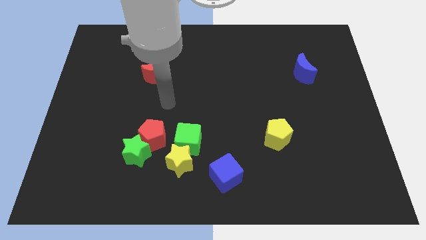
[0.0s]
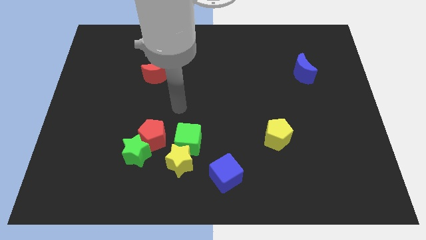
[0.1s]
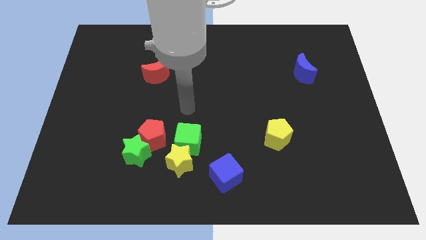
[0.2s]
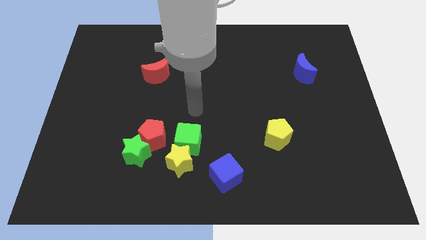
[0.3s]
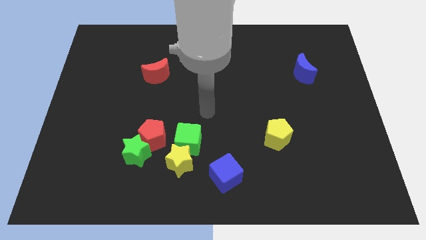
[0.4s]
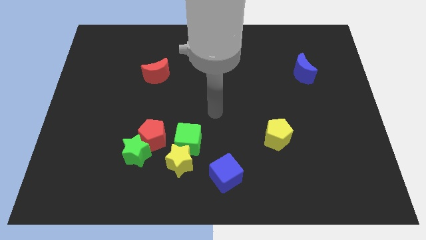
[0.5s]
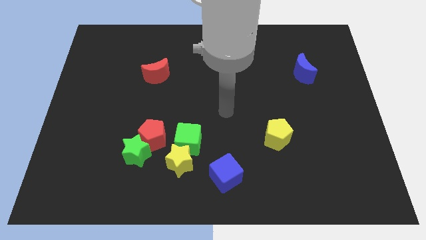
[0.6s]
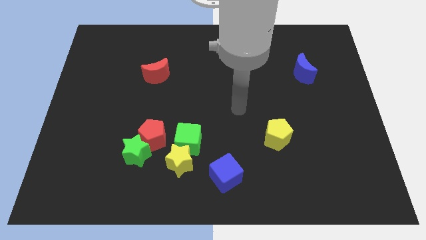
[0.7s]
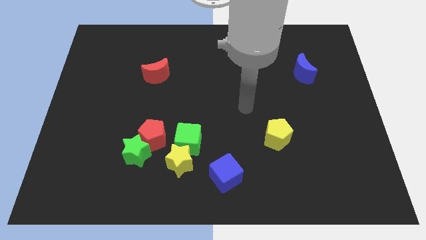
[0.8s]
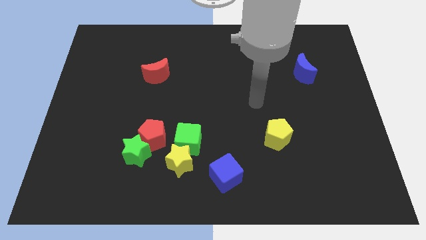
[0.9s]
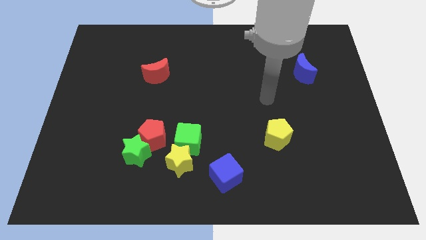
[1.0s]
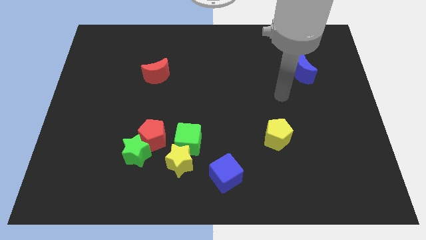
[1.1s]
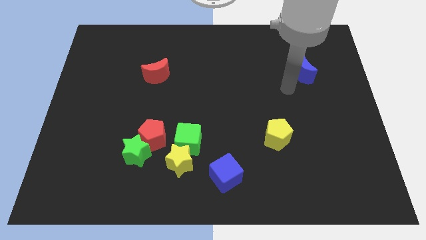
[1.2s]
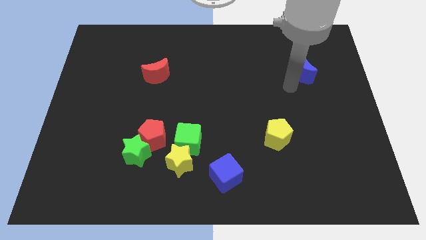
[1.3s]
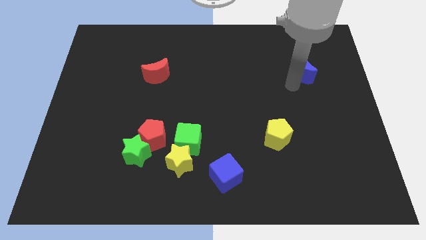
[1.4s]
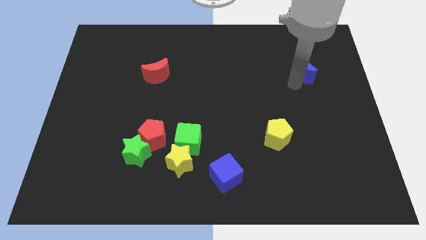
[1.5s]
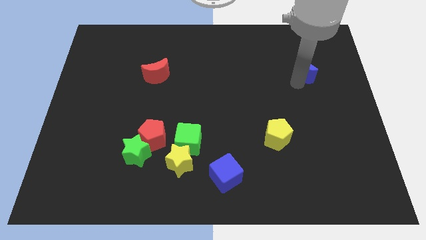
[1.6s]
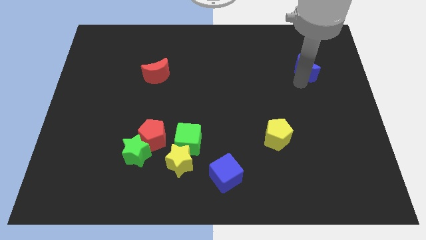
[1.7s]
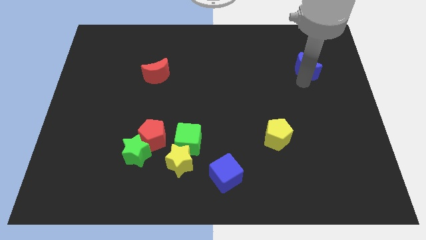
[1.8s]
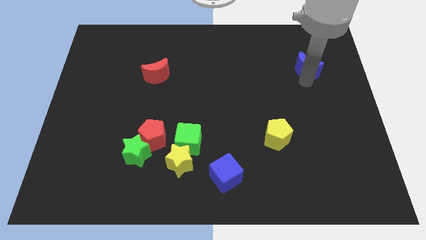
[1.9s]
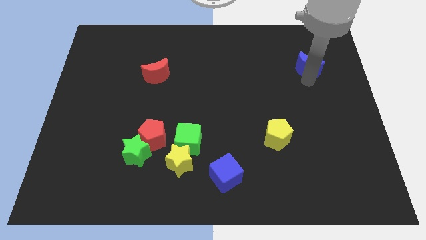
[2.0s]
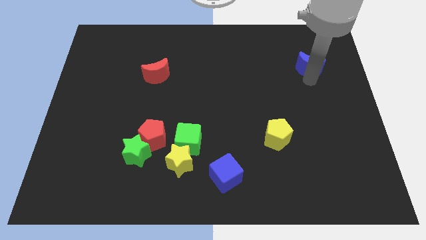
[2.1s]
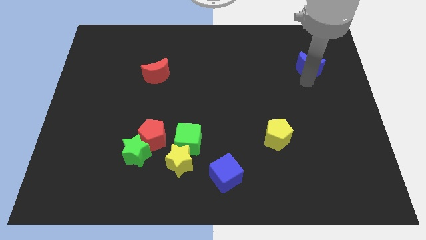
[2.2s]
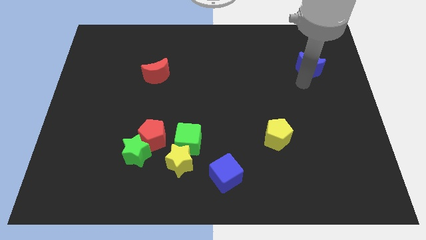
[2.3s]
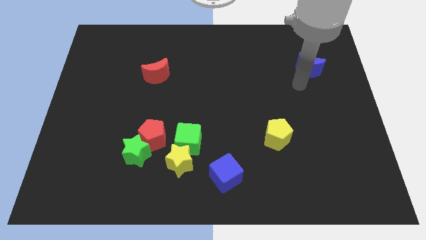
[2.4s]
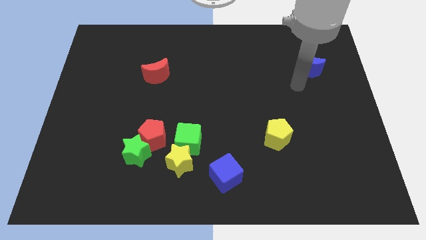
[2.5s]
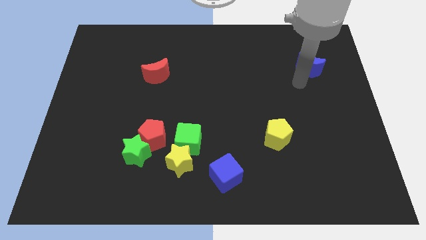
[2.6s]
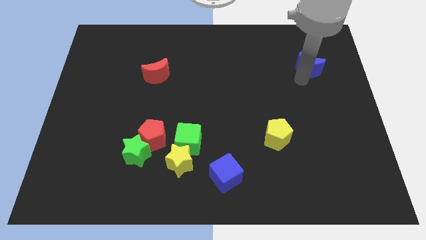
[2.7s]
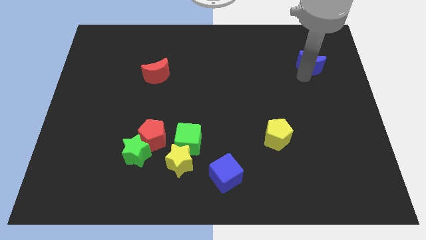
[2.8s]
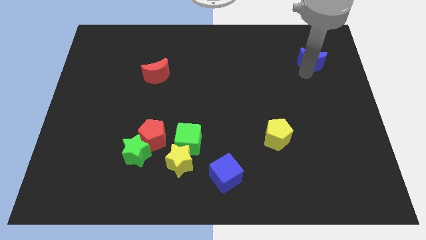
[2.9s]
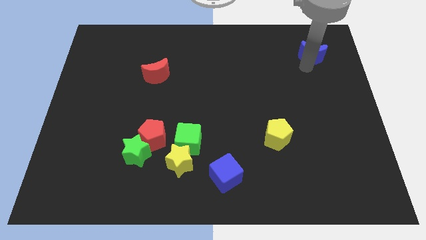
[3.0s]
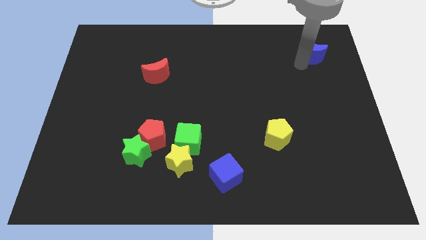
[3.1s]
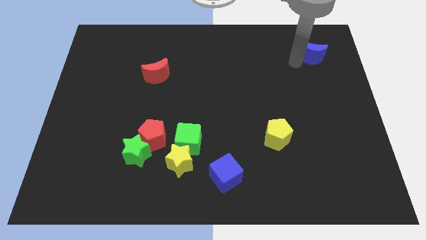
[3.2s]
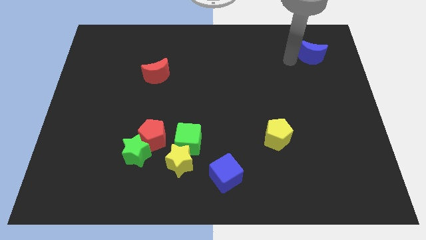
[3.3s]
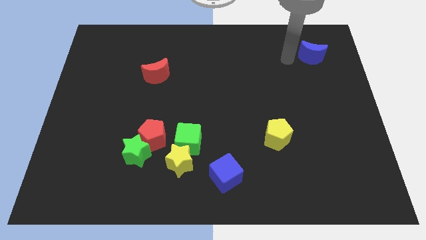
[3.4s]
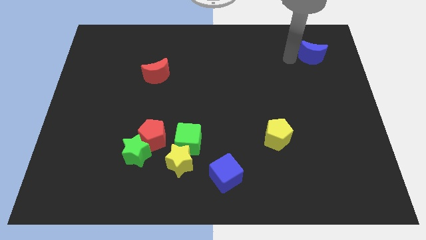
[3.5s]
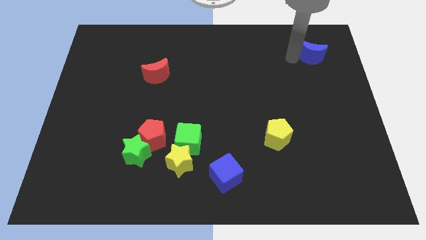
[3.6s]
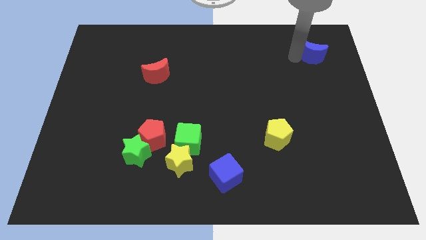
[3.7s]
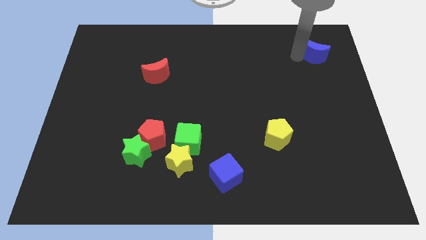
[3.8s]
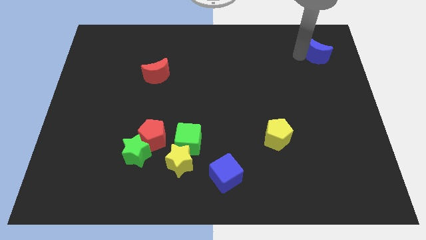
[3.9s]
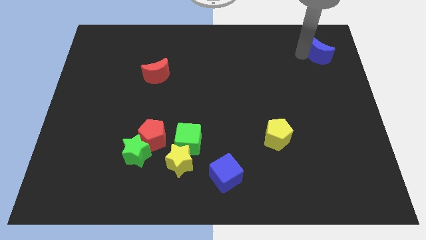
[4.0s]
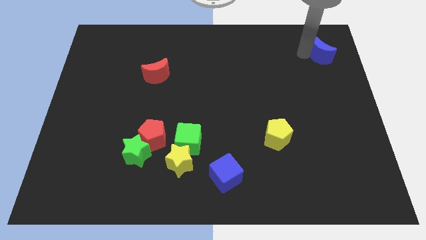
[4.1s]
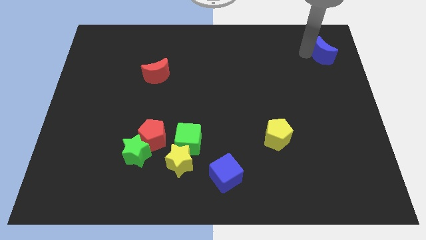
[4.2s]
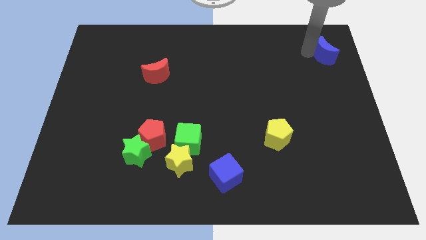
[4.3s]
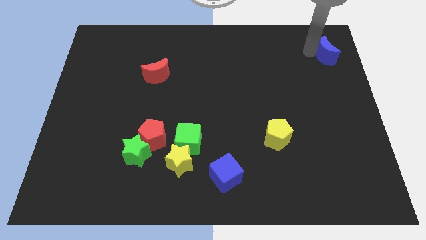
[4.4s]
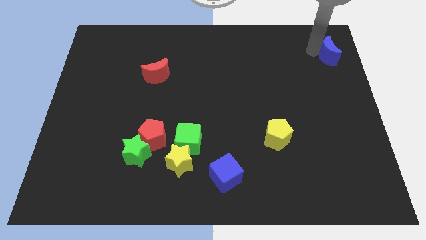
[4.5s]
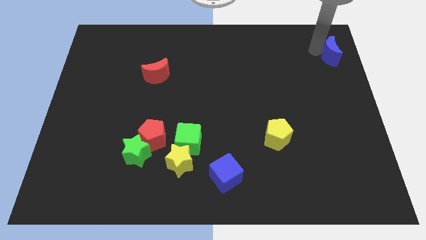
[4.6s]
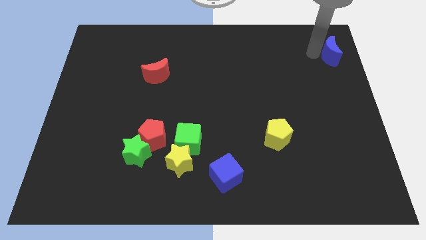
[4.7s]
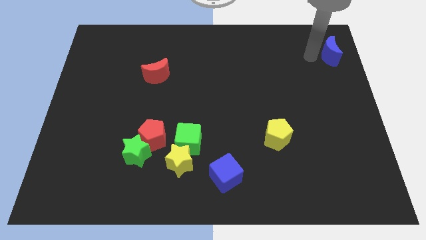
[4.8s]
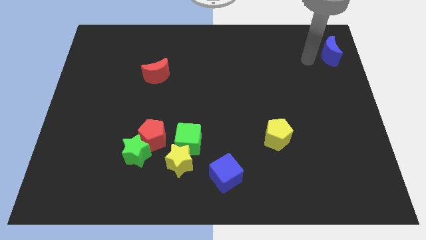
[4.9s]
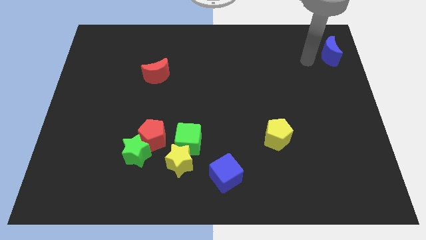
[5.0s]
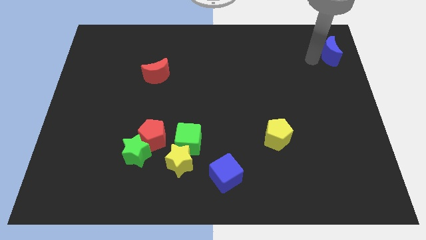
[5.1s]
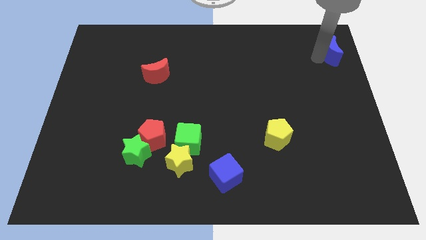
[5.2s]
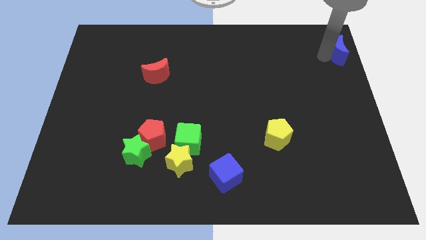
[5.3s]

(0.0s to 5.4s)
move the blue moon to the top right

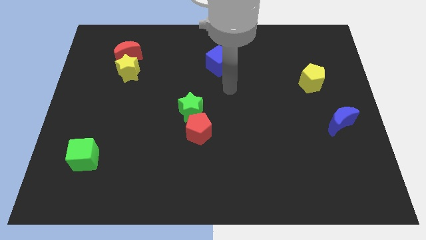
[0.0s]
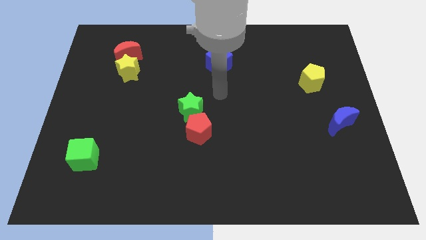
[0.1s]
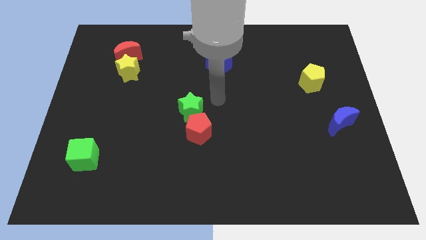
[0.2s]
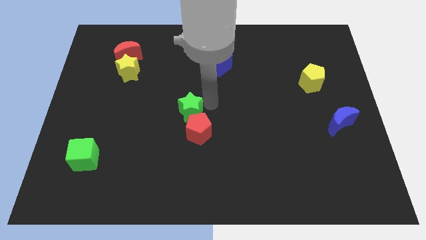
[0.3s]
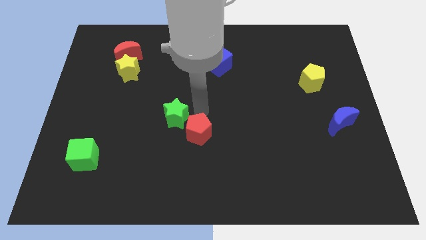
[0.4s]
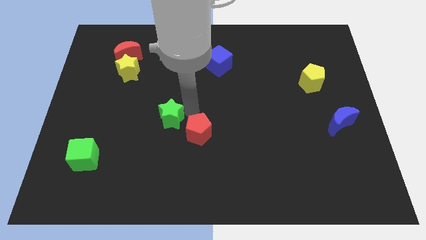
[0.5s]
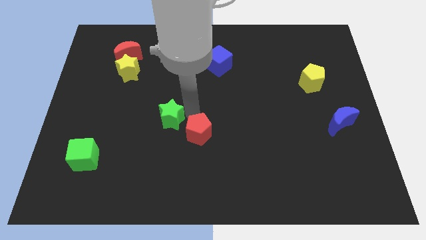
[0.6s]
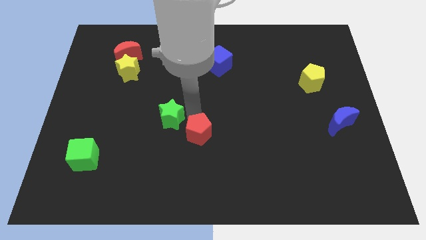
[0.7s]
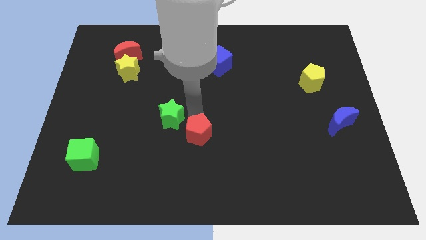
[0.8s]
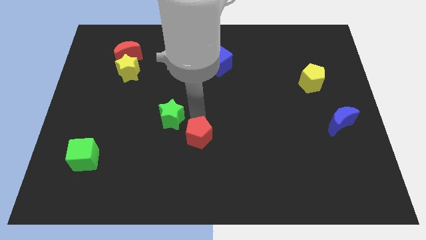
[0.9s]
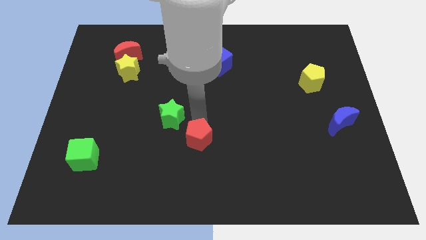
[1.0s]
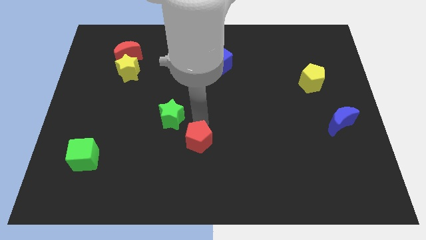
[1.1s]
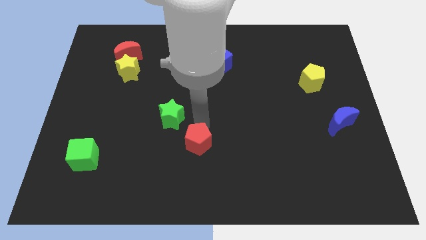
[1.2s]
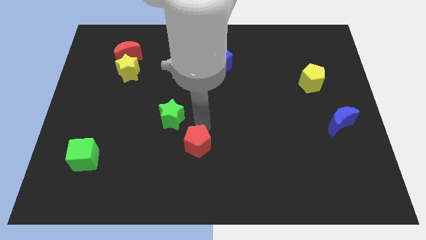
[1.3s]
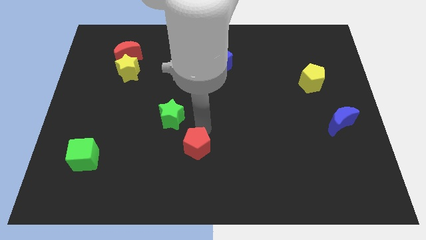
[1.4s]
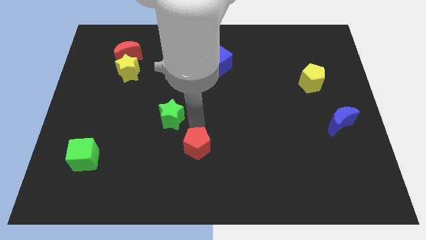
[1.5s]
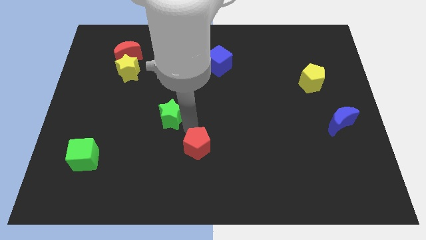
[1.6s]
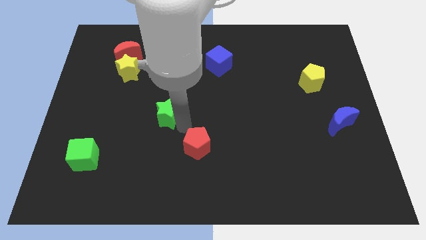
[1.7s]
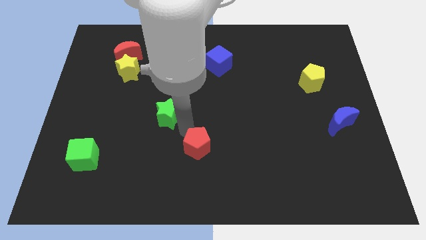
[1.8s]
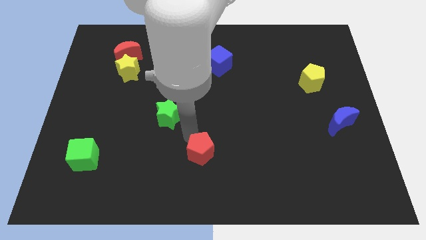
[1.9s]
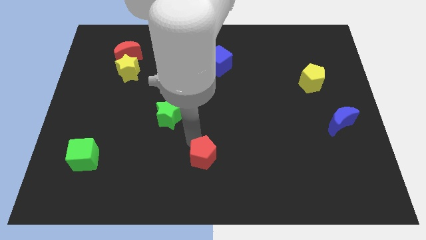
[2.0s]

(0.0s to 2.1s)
move the red pentagon to the bottom
